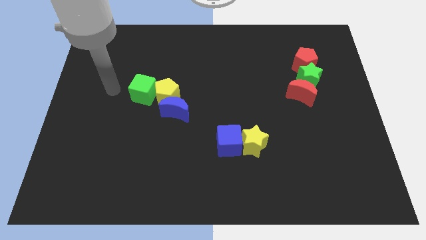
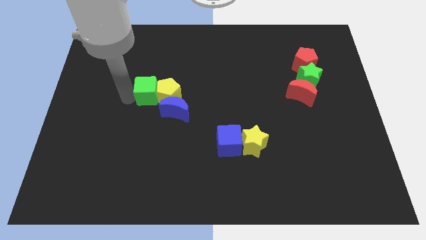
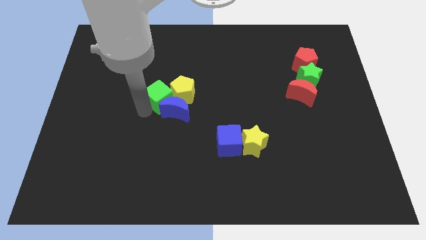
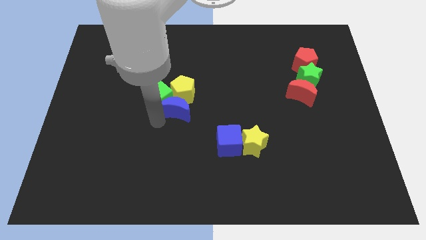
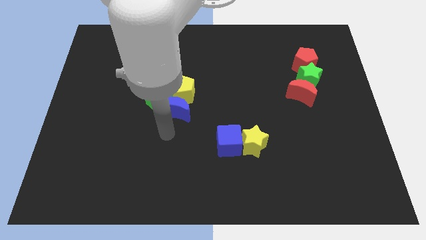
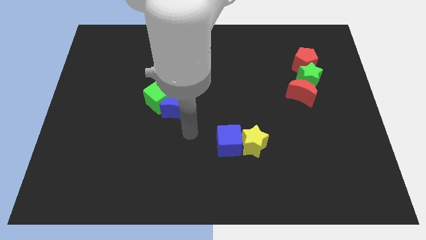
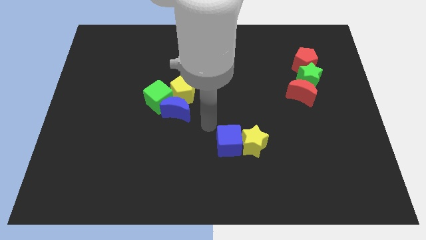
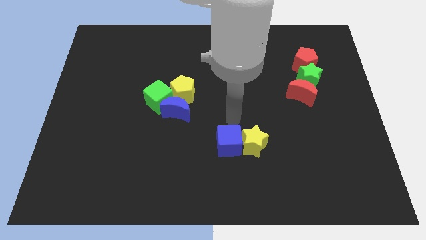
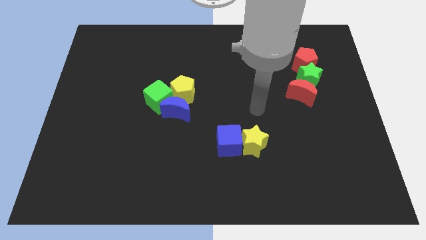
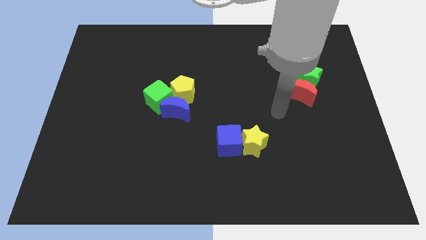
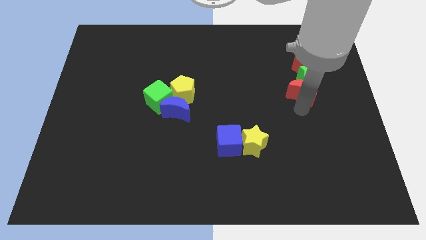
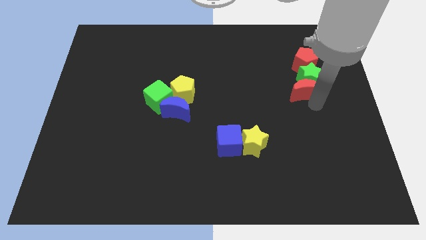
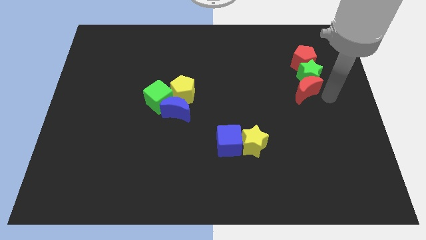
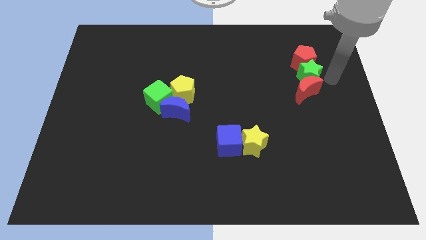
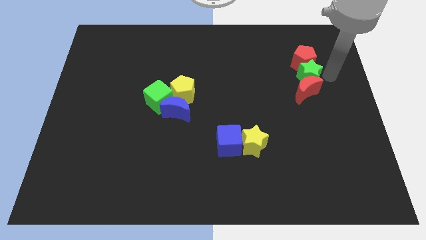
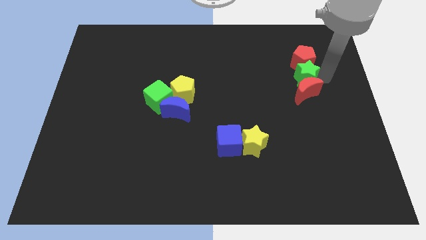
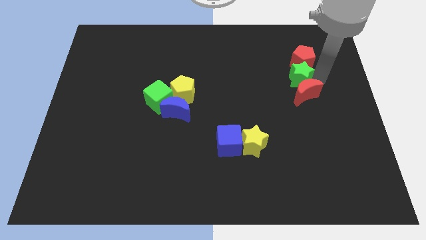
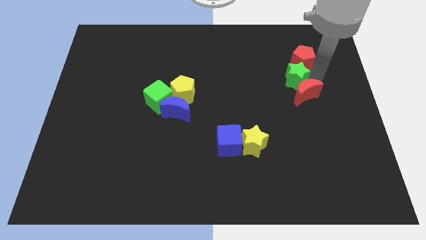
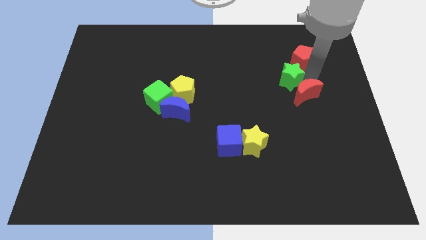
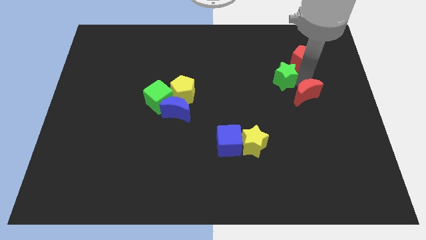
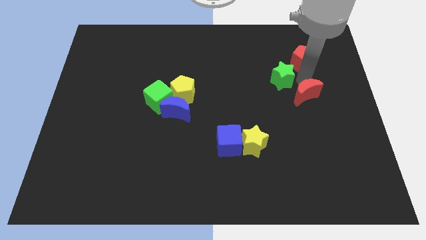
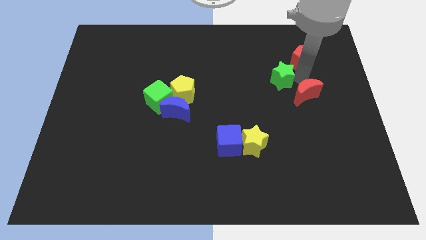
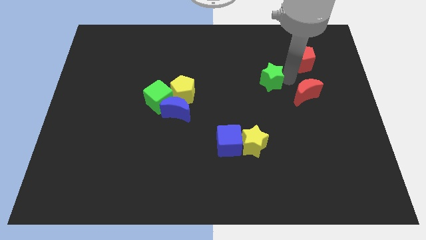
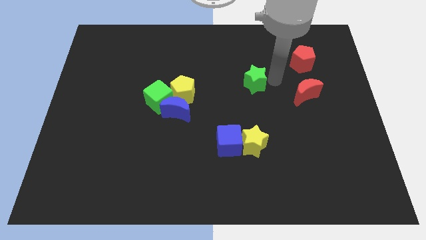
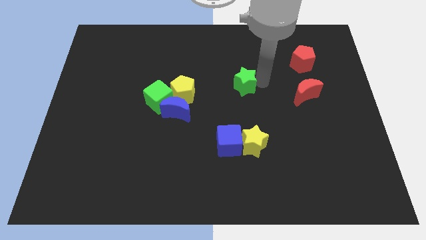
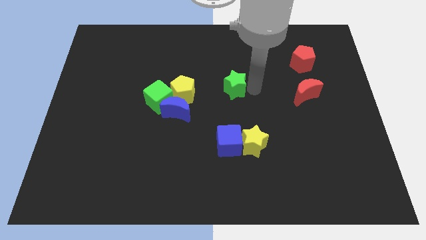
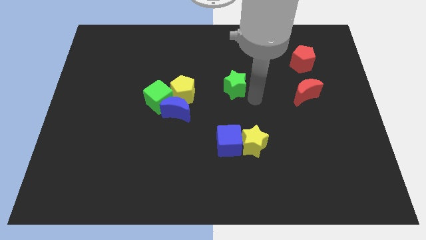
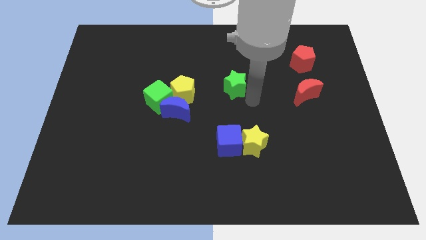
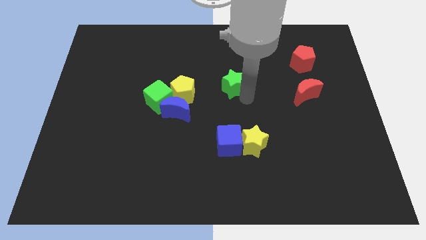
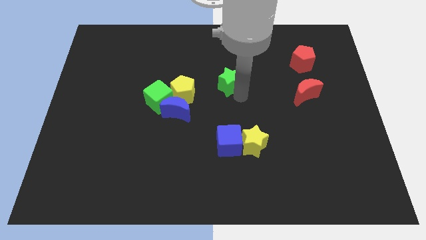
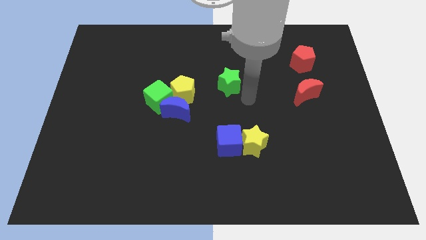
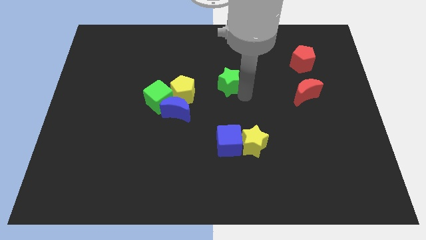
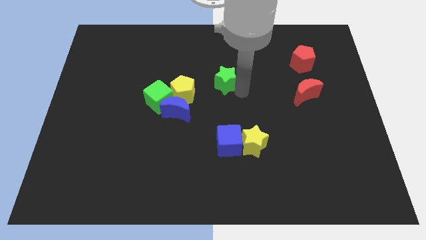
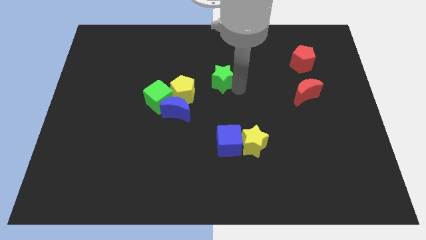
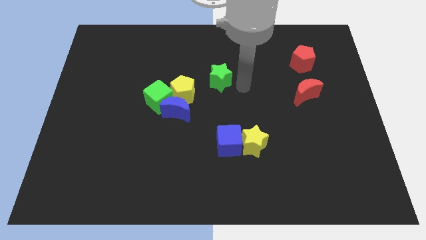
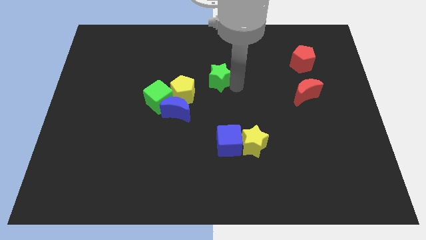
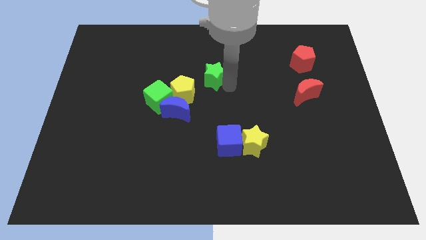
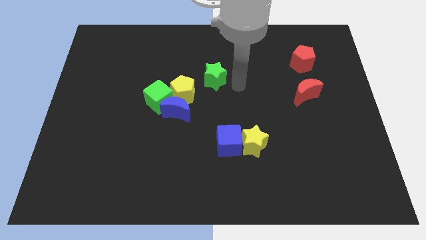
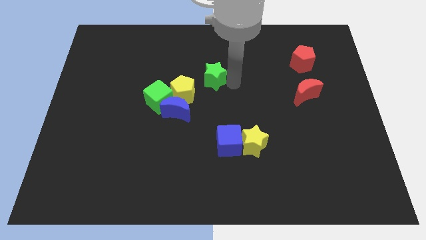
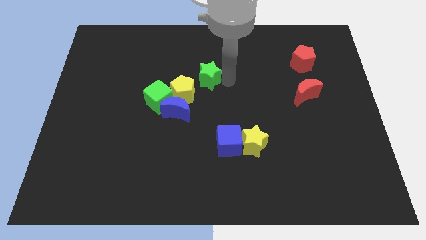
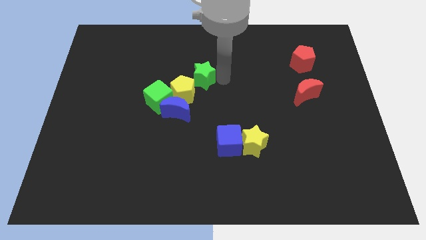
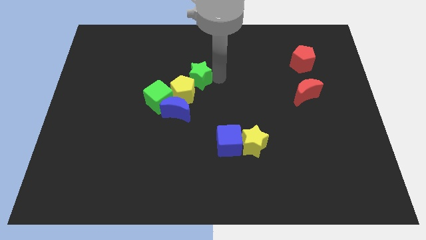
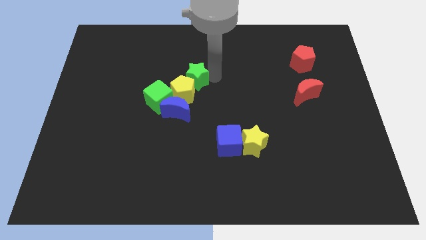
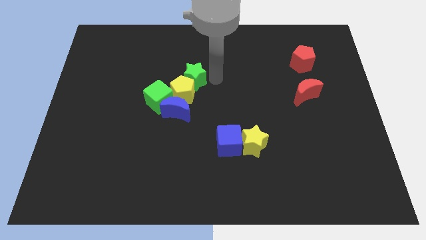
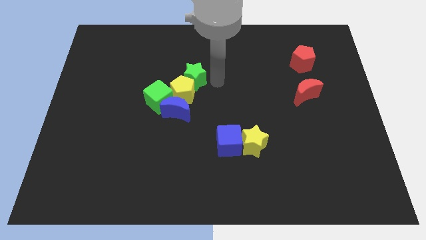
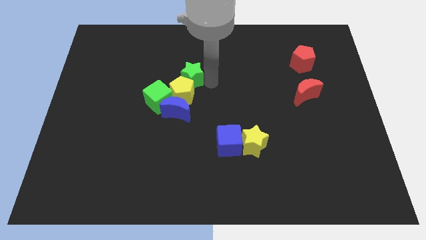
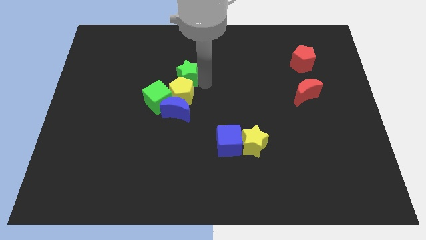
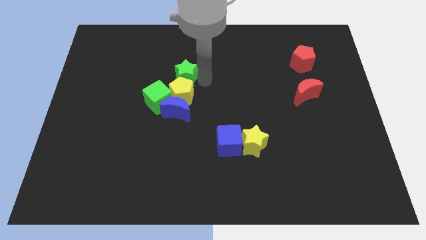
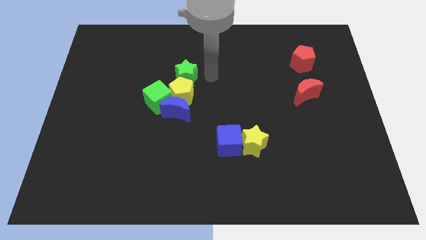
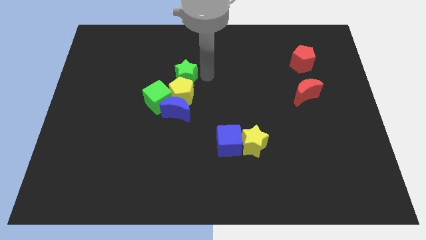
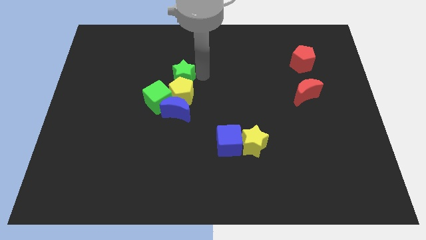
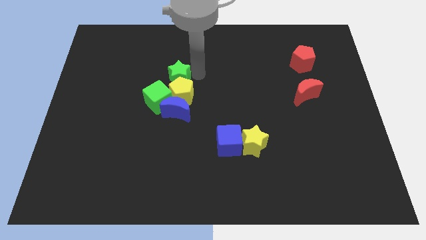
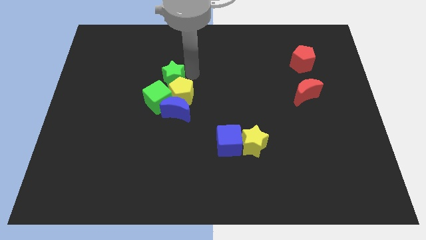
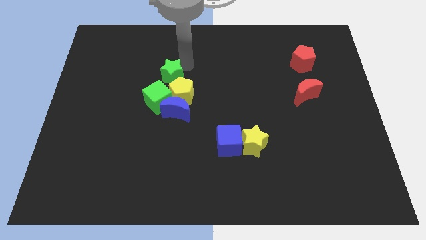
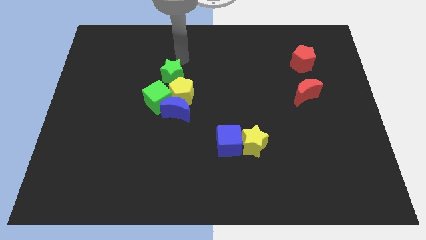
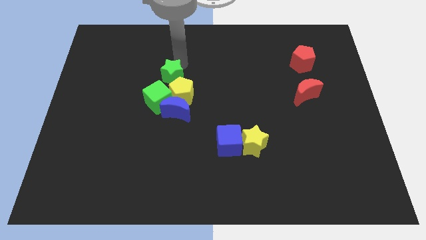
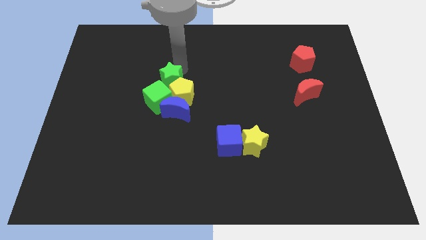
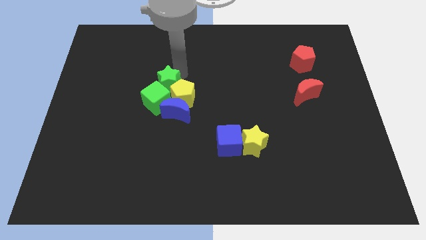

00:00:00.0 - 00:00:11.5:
put the green star next to the green cube

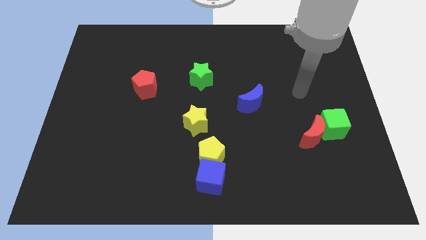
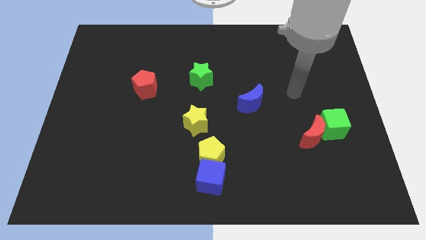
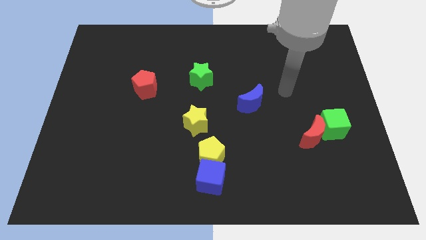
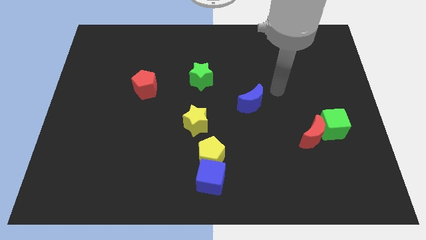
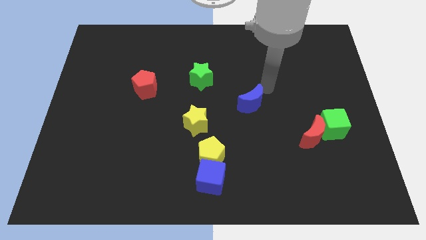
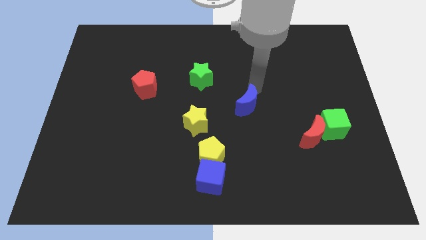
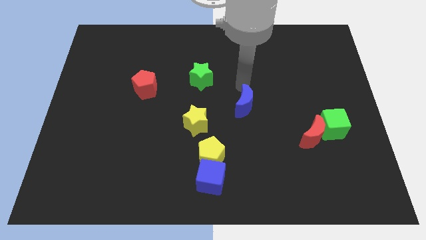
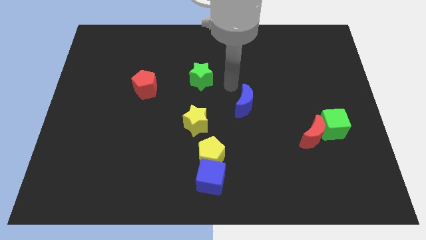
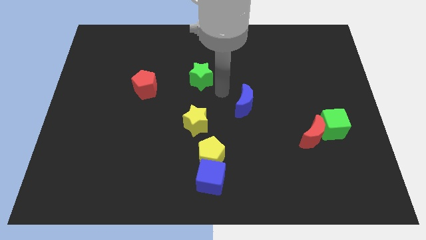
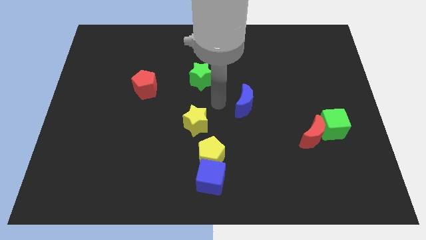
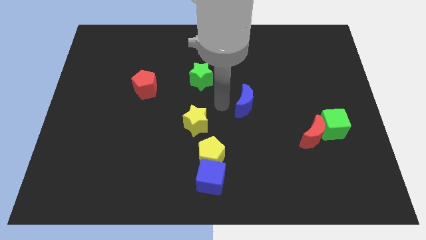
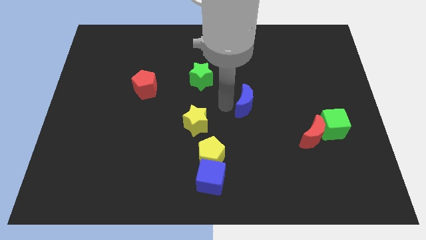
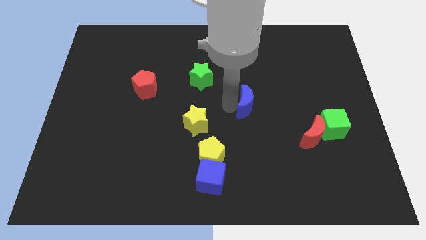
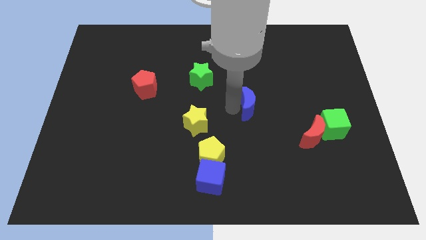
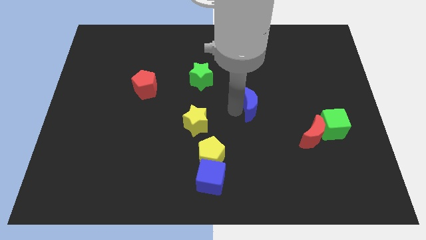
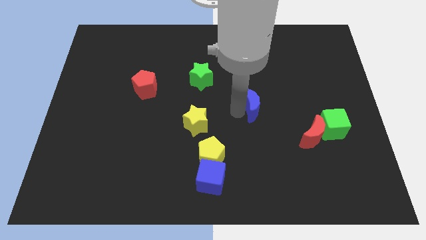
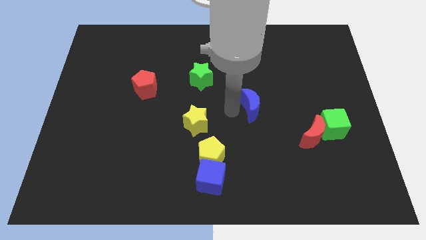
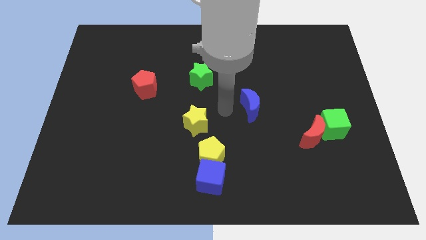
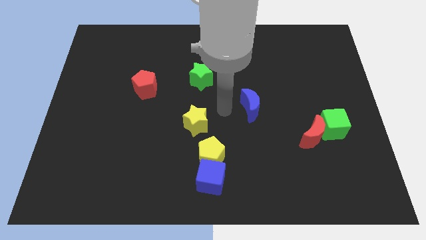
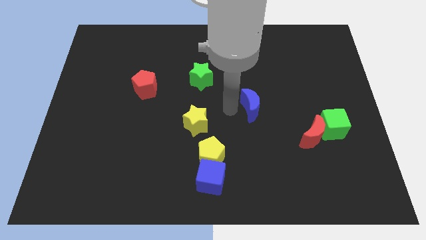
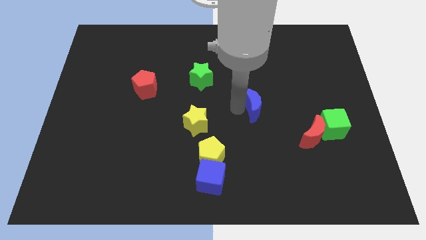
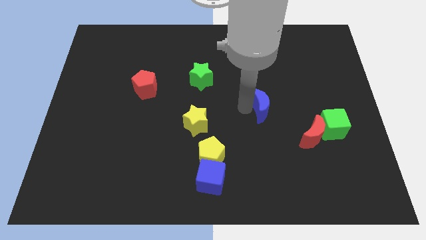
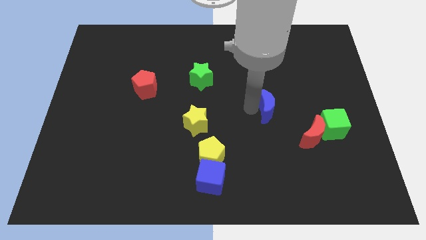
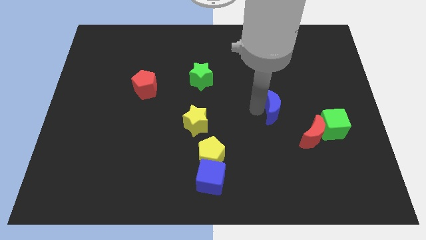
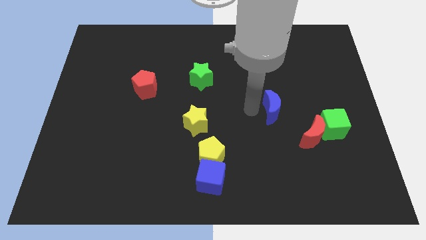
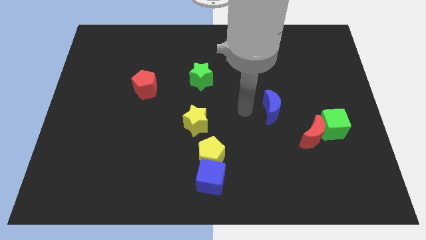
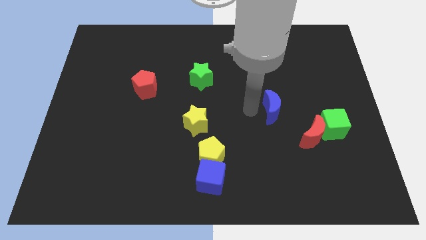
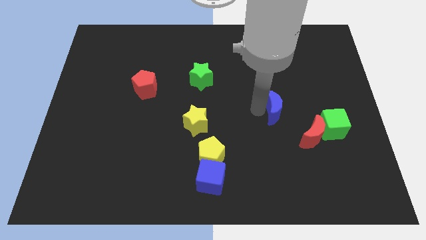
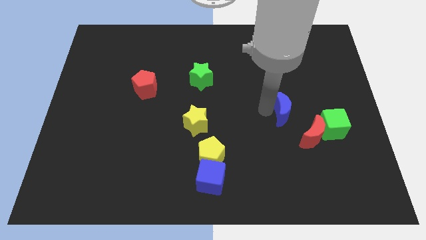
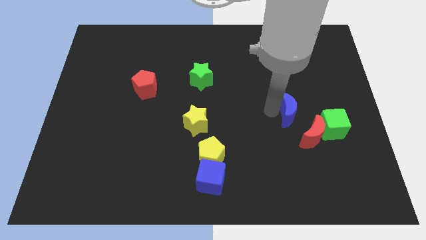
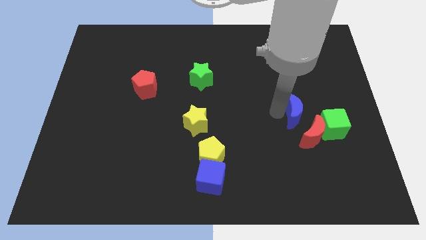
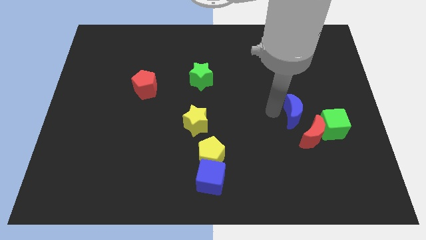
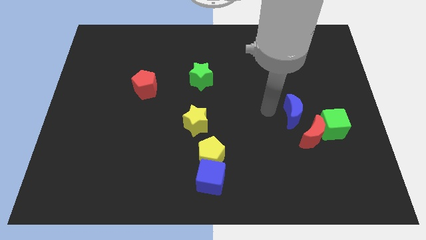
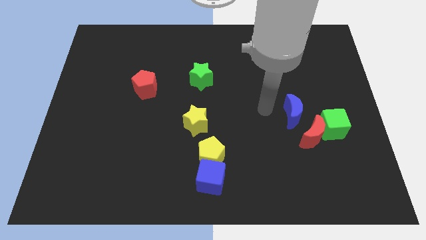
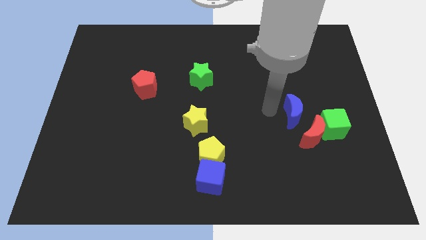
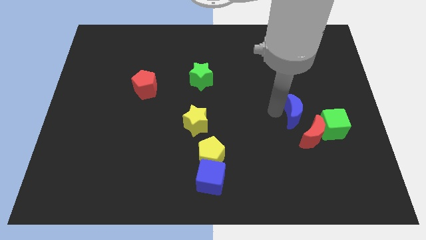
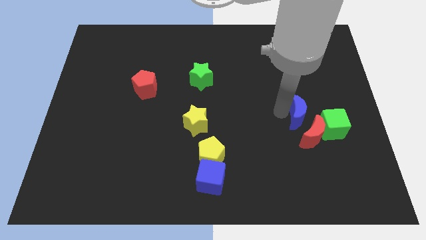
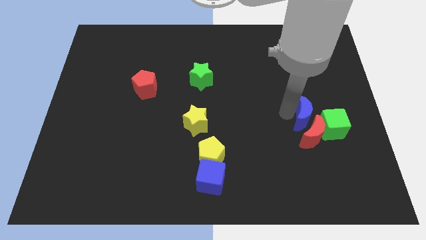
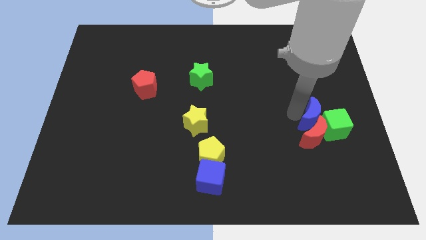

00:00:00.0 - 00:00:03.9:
push the blue moon to the green cube
